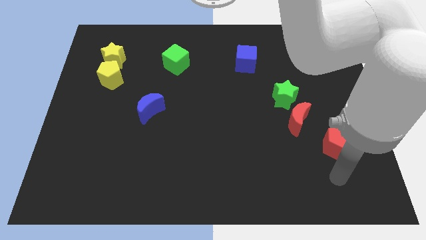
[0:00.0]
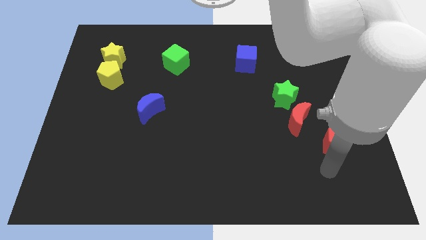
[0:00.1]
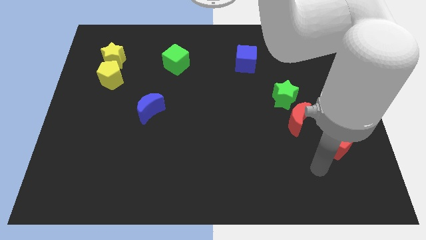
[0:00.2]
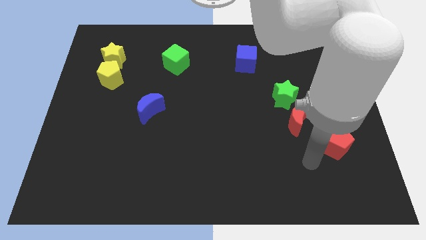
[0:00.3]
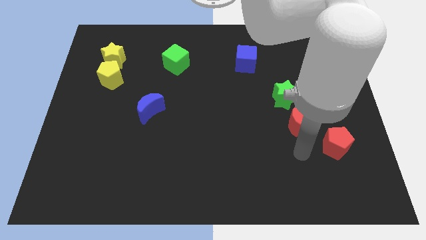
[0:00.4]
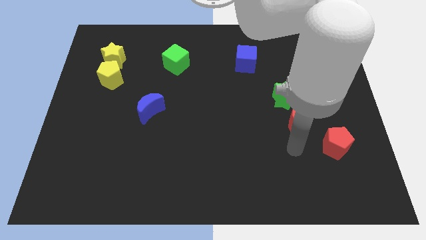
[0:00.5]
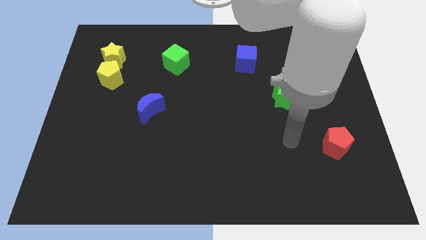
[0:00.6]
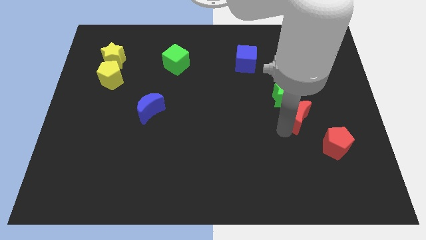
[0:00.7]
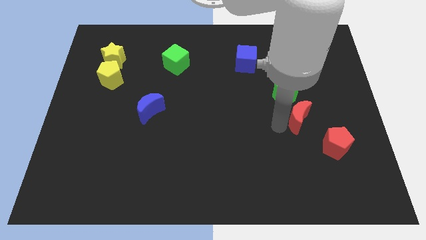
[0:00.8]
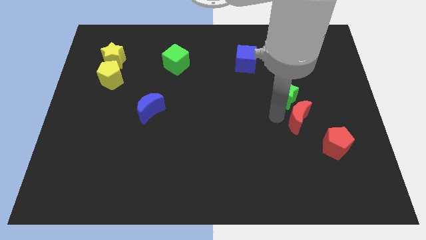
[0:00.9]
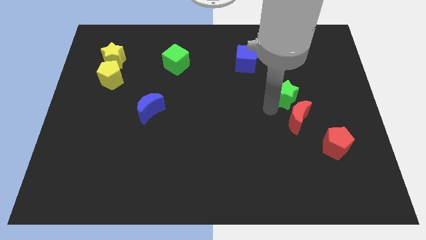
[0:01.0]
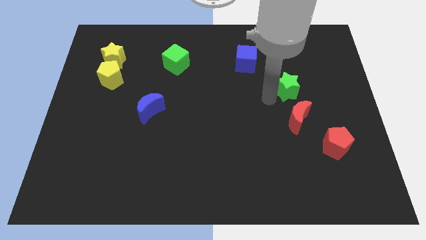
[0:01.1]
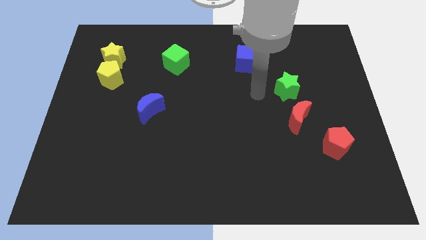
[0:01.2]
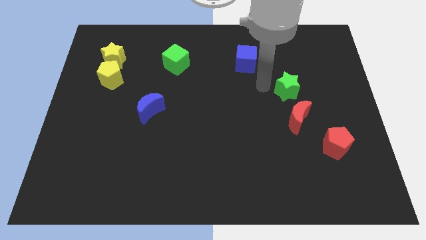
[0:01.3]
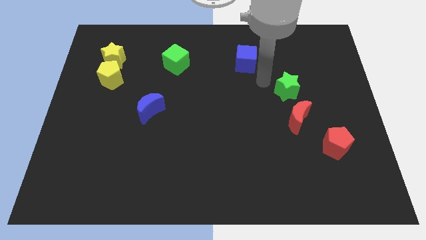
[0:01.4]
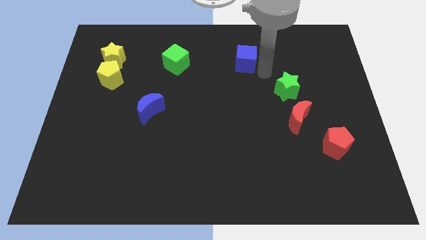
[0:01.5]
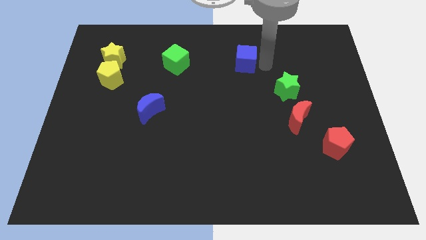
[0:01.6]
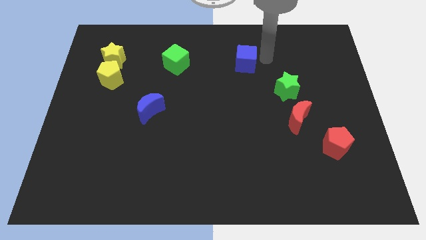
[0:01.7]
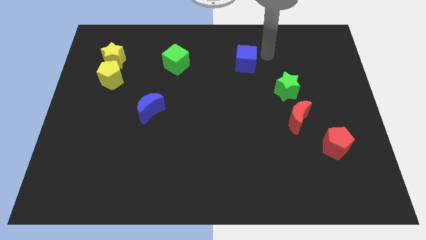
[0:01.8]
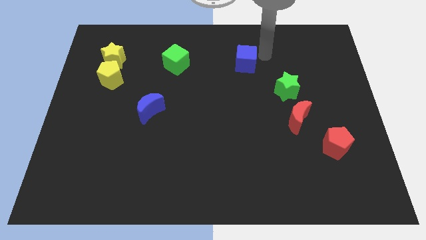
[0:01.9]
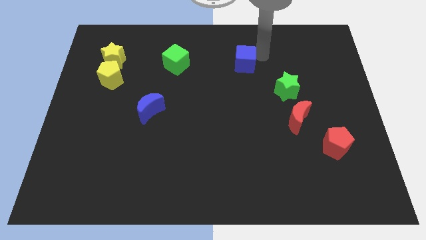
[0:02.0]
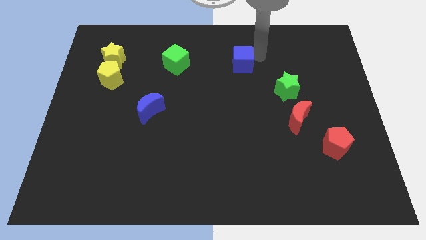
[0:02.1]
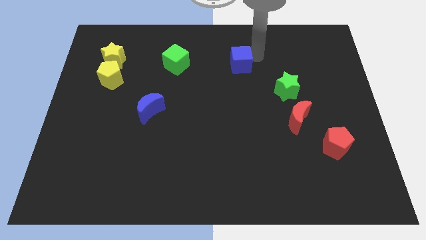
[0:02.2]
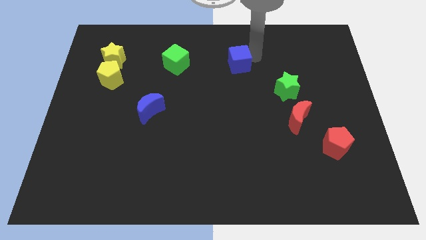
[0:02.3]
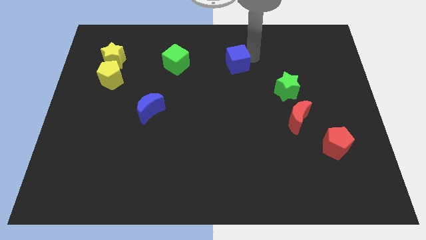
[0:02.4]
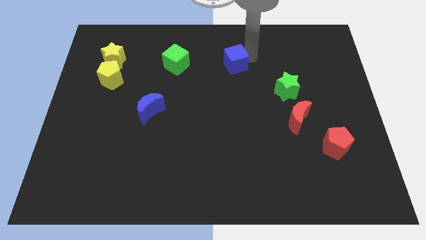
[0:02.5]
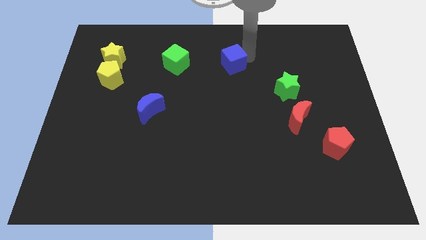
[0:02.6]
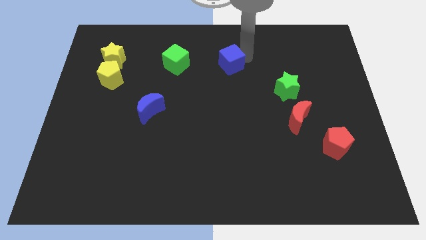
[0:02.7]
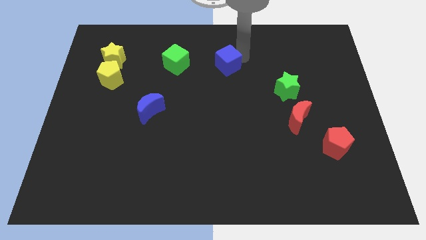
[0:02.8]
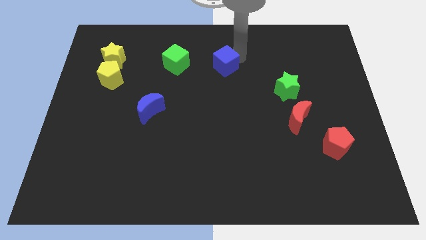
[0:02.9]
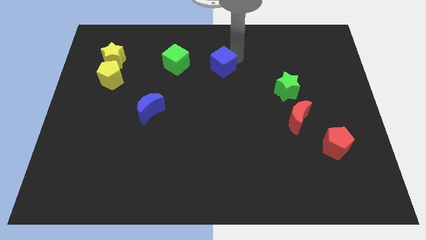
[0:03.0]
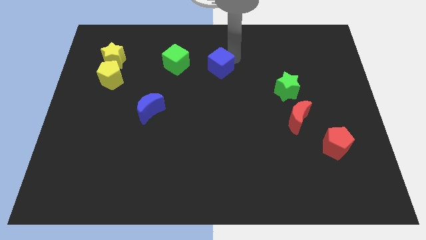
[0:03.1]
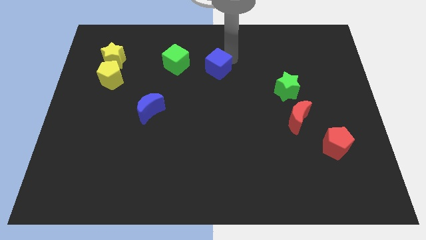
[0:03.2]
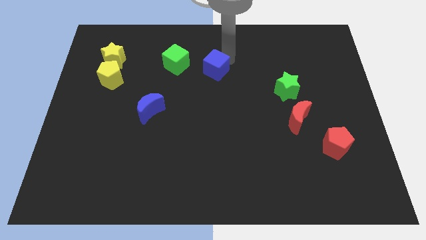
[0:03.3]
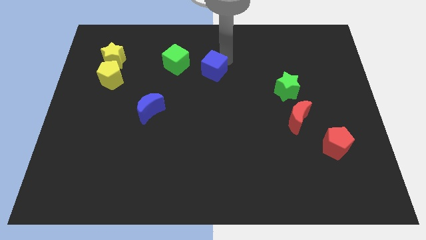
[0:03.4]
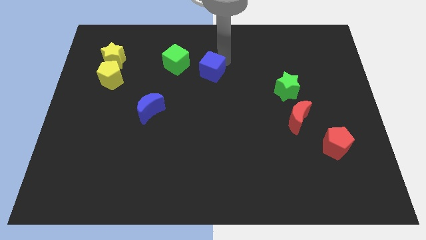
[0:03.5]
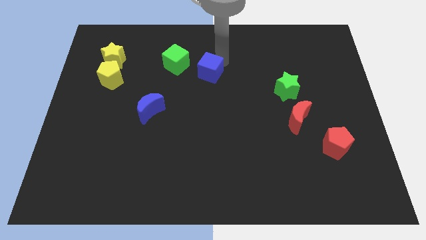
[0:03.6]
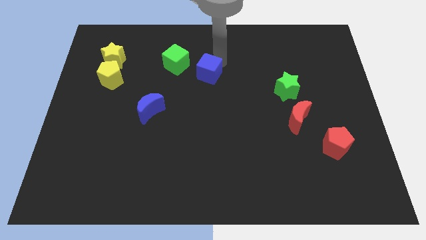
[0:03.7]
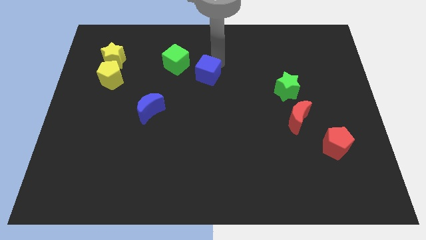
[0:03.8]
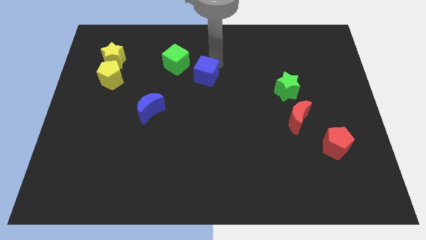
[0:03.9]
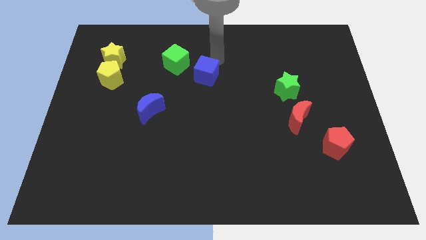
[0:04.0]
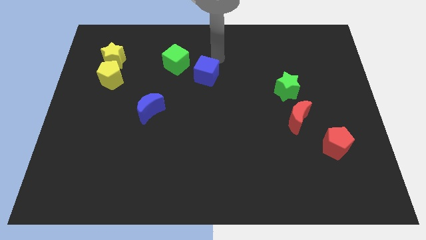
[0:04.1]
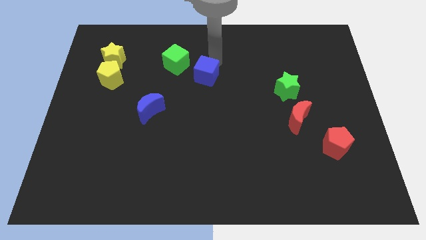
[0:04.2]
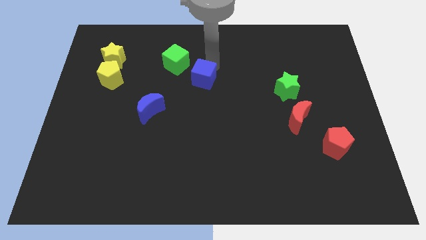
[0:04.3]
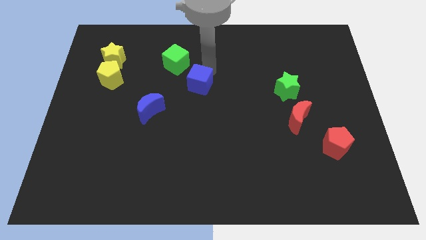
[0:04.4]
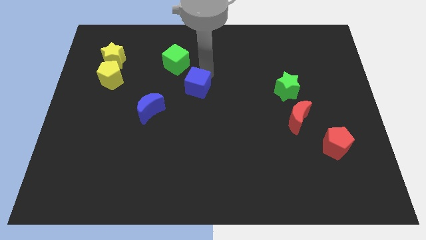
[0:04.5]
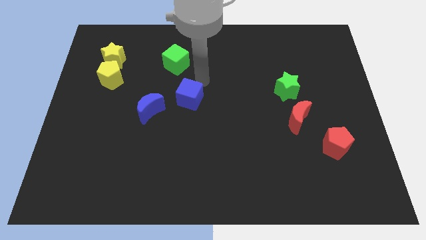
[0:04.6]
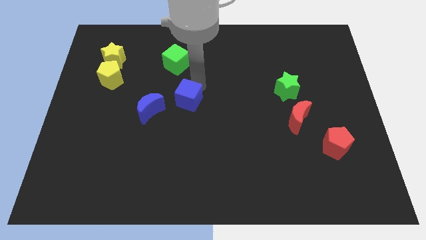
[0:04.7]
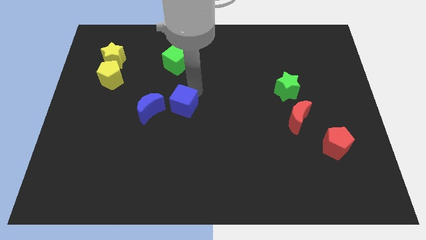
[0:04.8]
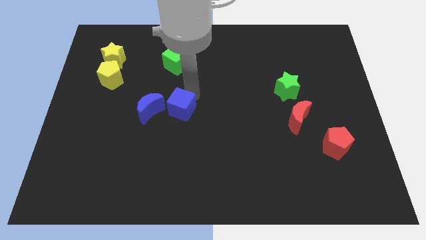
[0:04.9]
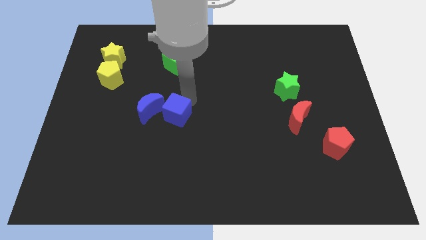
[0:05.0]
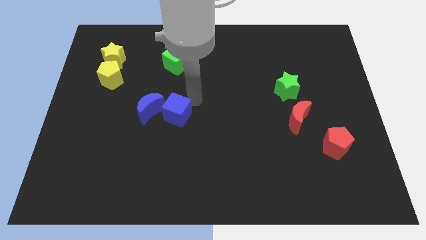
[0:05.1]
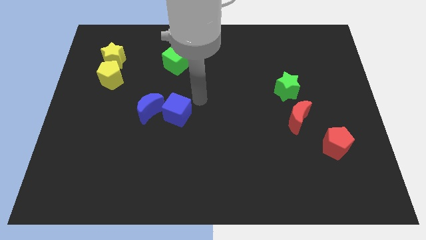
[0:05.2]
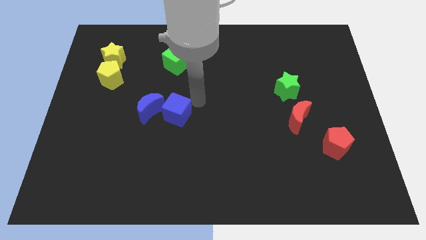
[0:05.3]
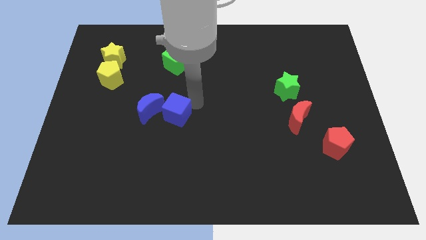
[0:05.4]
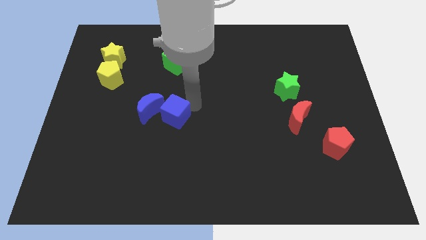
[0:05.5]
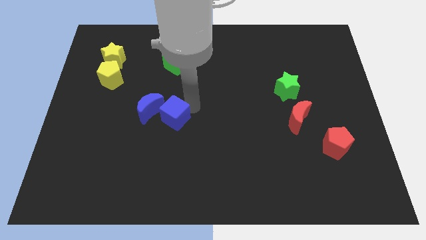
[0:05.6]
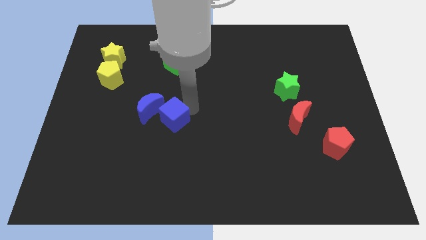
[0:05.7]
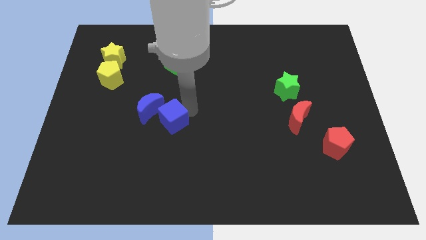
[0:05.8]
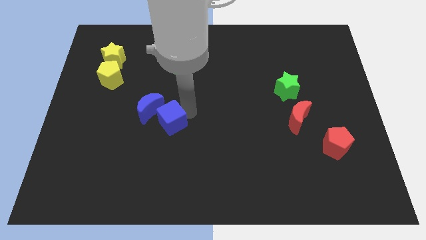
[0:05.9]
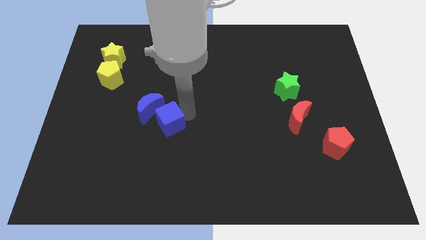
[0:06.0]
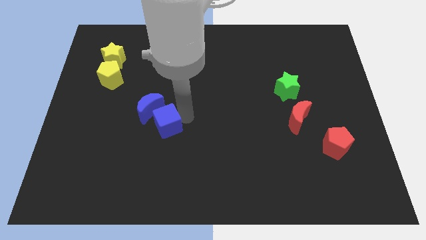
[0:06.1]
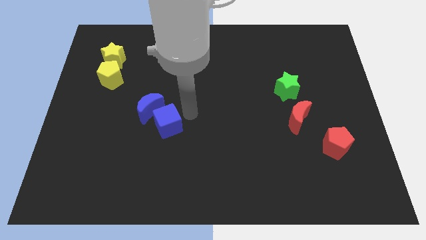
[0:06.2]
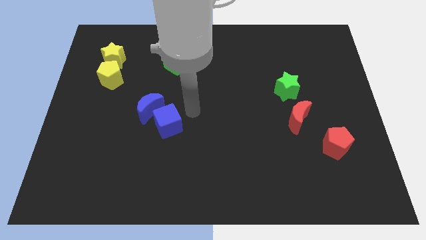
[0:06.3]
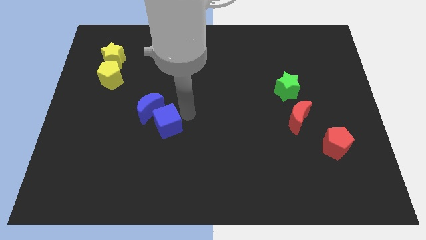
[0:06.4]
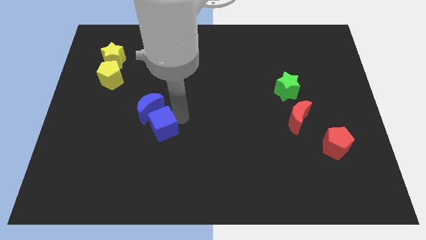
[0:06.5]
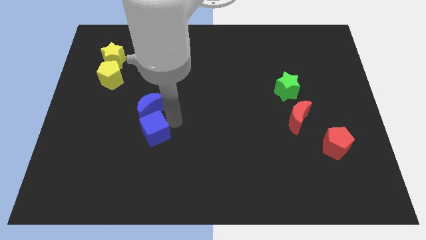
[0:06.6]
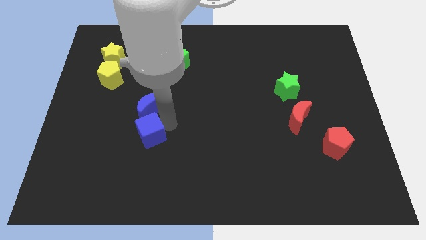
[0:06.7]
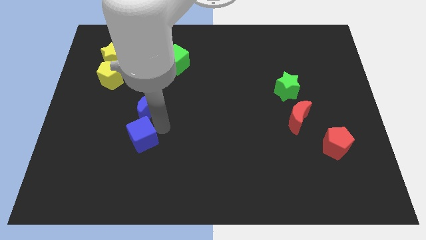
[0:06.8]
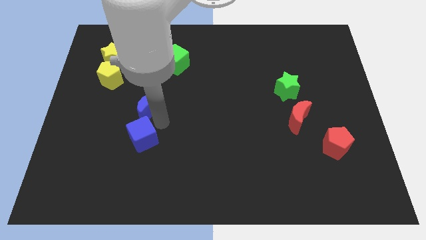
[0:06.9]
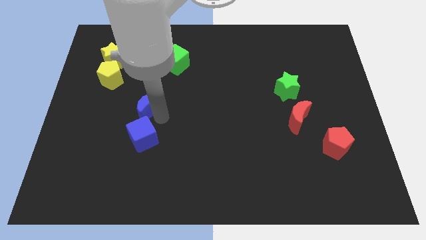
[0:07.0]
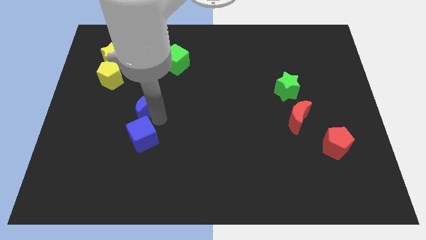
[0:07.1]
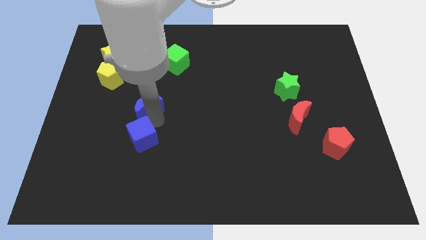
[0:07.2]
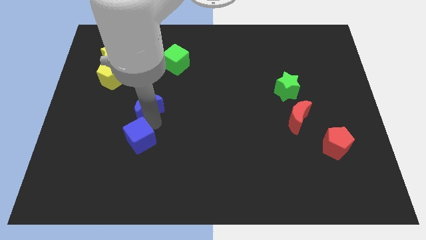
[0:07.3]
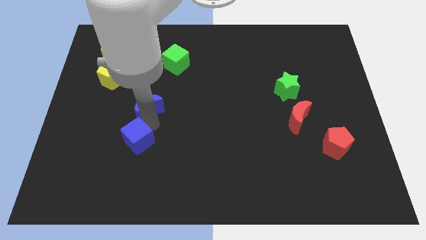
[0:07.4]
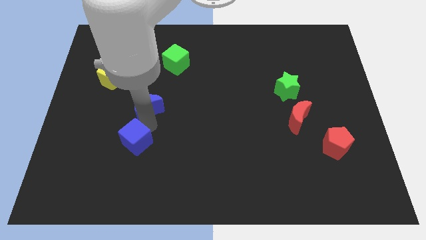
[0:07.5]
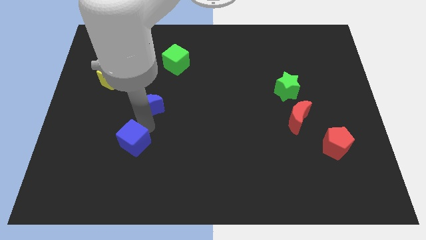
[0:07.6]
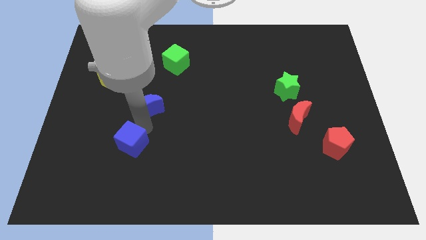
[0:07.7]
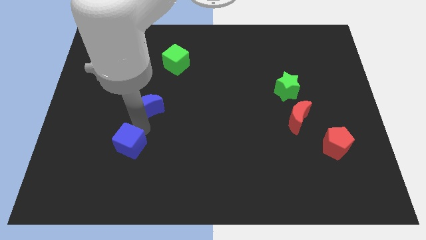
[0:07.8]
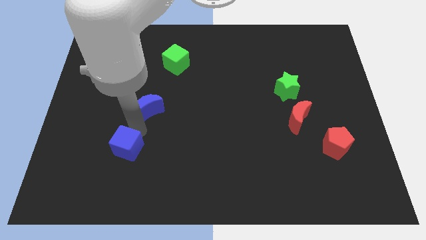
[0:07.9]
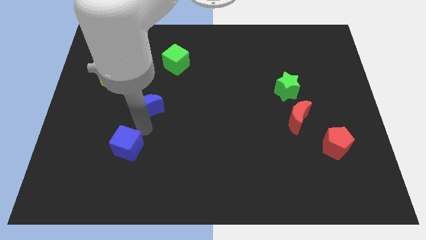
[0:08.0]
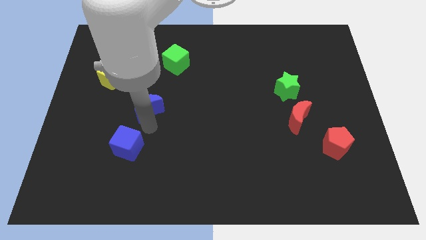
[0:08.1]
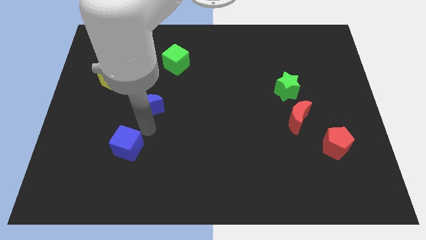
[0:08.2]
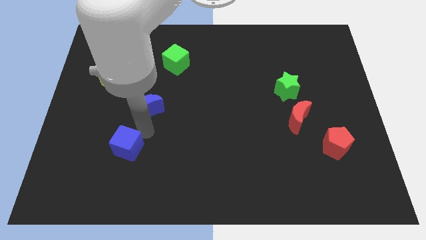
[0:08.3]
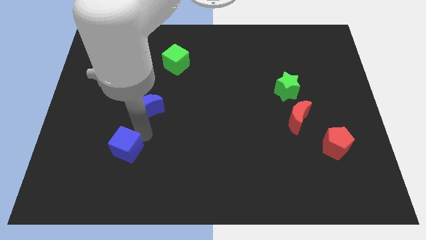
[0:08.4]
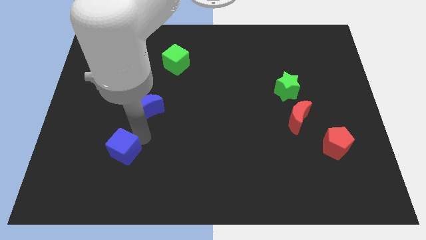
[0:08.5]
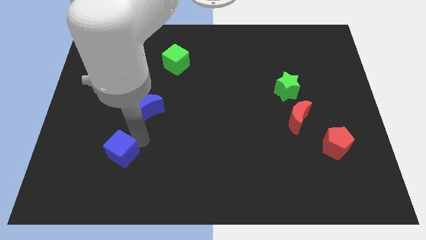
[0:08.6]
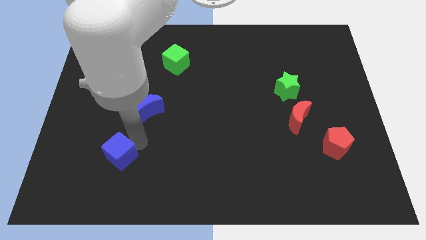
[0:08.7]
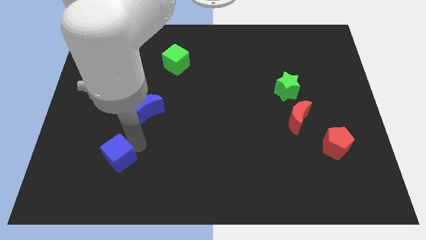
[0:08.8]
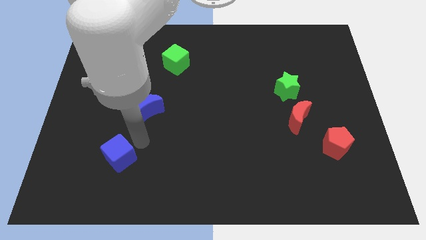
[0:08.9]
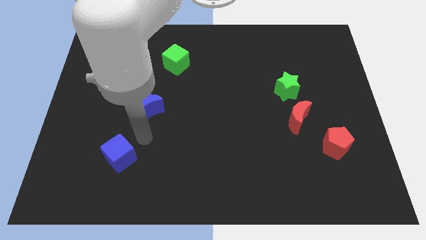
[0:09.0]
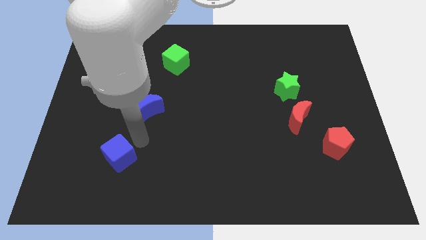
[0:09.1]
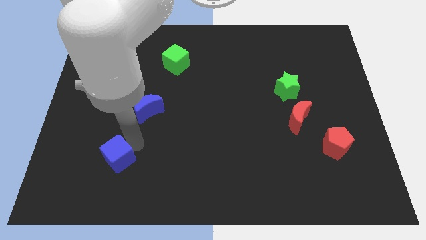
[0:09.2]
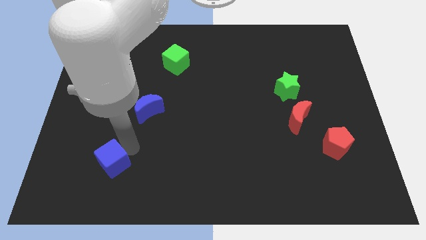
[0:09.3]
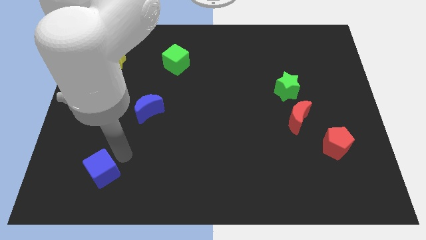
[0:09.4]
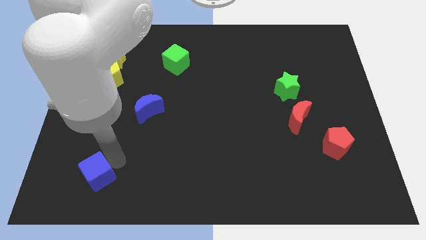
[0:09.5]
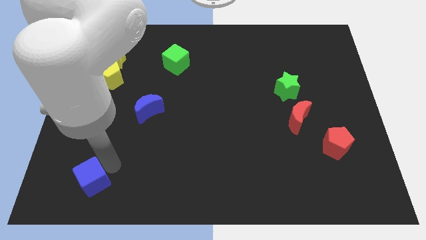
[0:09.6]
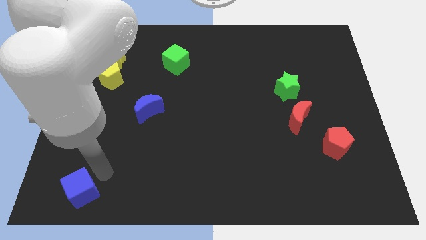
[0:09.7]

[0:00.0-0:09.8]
move the blue cube to the bottom left corner
